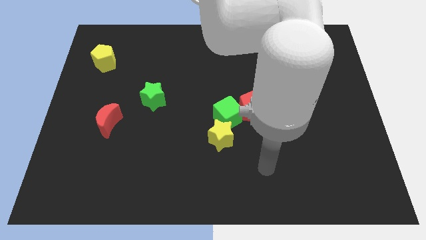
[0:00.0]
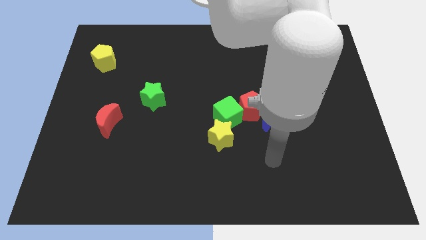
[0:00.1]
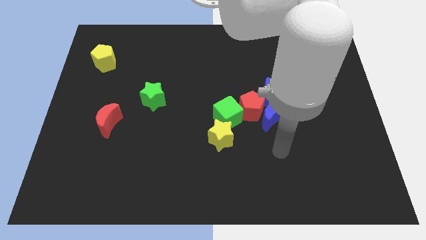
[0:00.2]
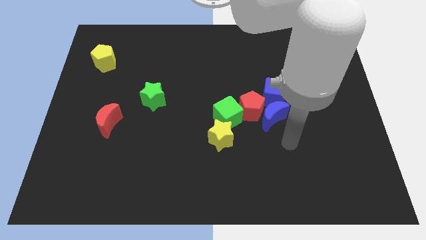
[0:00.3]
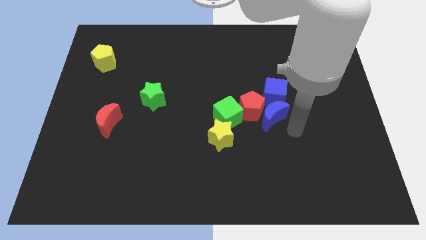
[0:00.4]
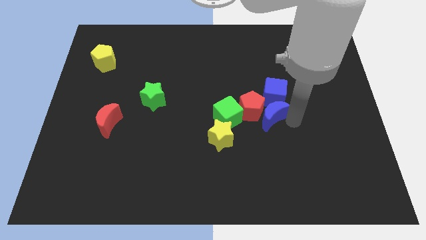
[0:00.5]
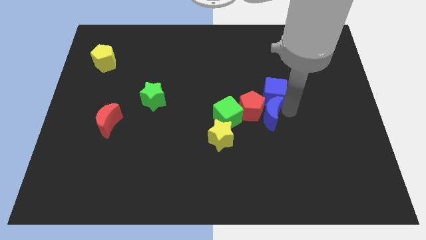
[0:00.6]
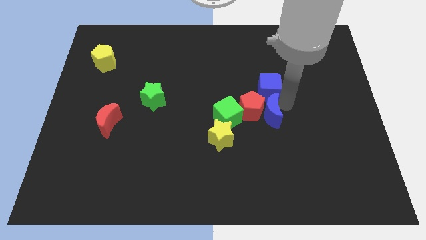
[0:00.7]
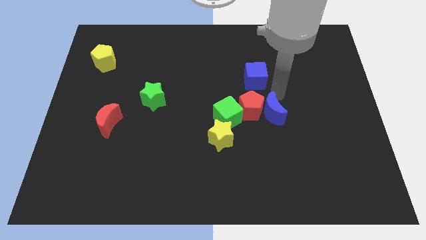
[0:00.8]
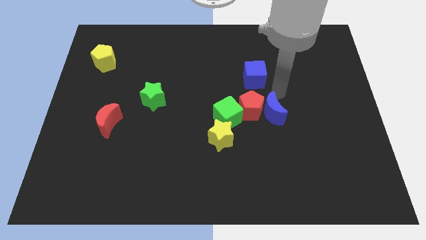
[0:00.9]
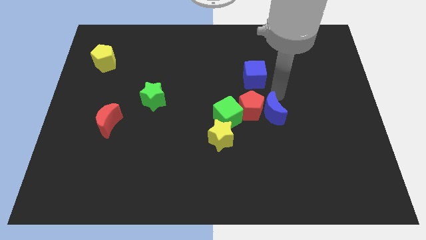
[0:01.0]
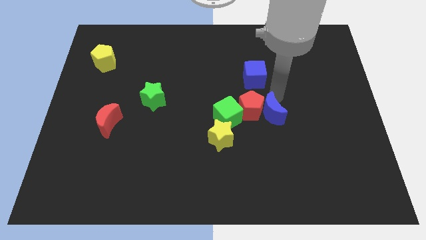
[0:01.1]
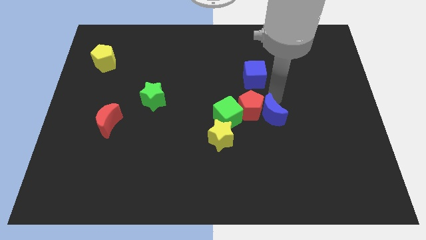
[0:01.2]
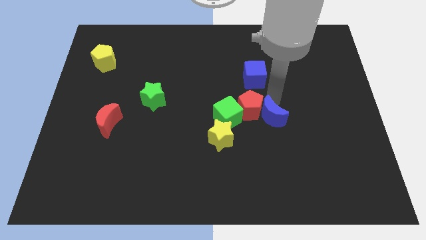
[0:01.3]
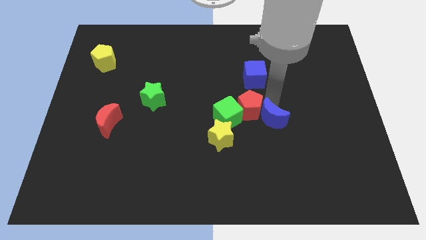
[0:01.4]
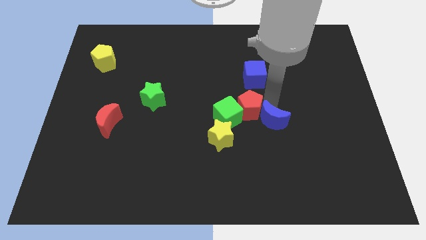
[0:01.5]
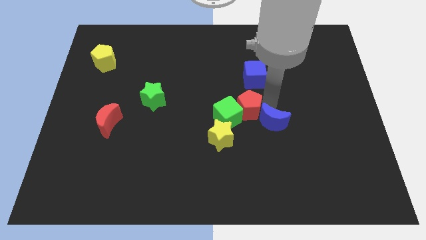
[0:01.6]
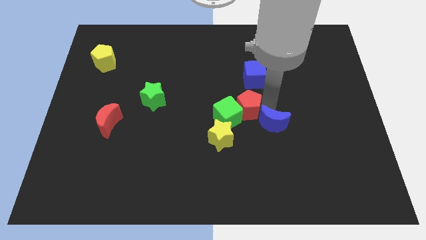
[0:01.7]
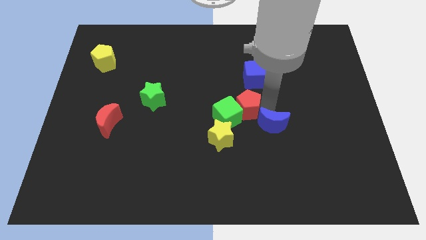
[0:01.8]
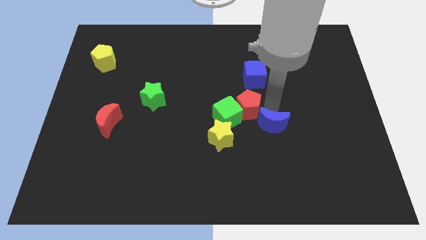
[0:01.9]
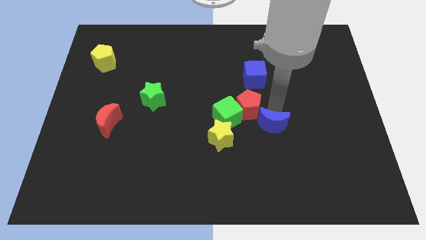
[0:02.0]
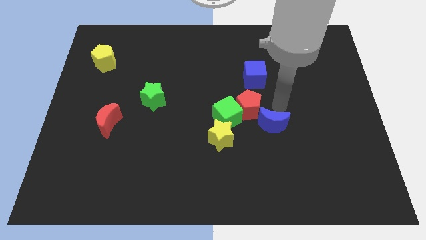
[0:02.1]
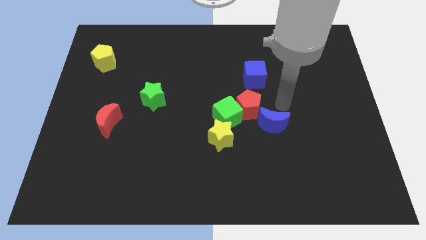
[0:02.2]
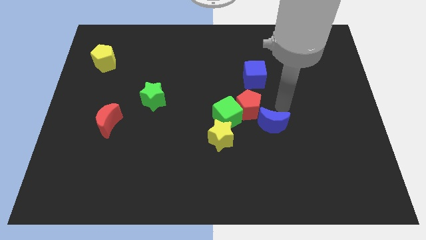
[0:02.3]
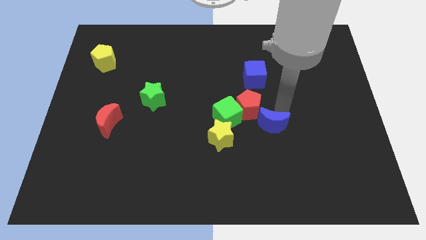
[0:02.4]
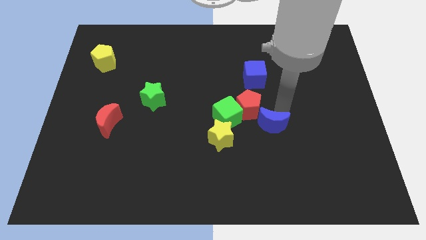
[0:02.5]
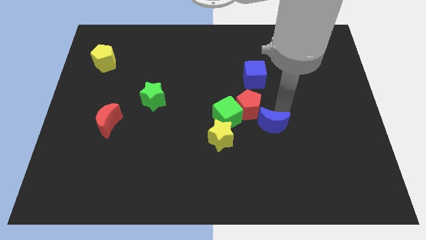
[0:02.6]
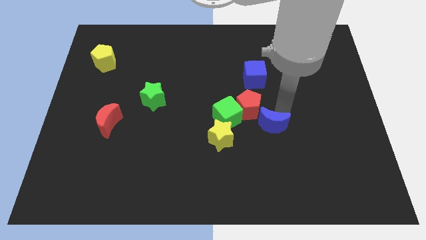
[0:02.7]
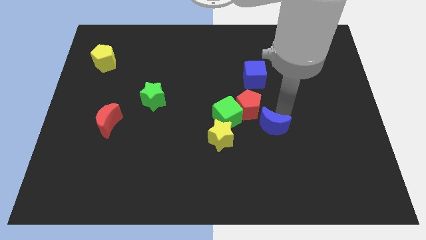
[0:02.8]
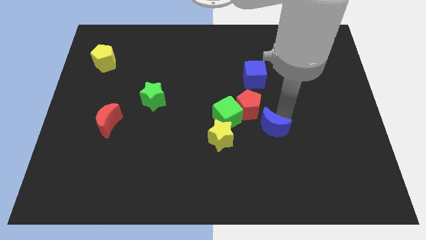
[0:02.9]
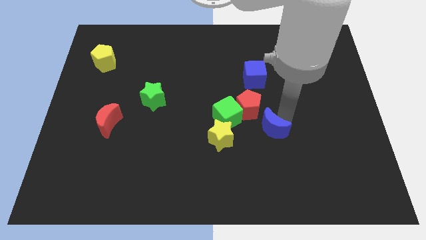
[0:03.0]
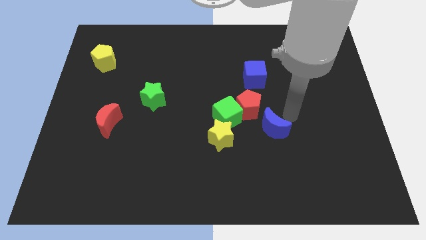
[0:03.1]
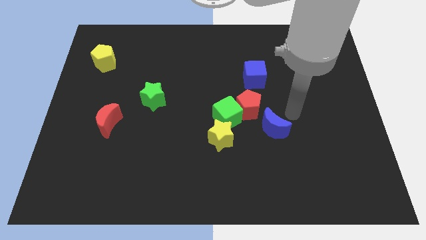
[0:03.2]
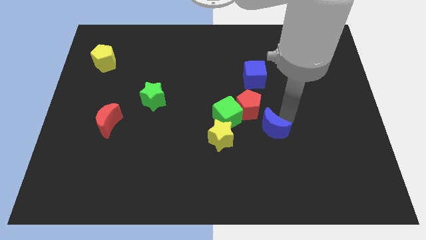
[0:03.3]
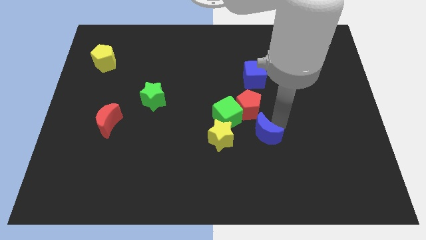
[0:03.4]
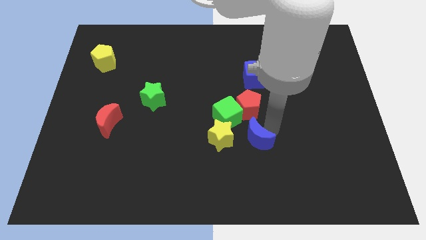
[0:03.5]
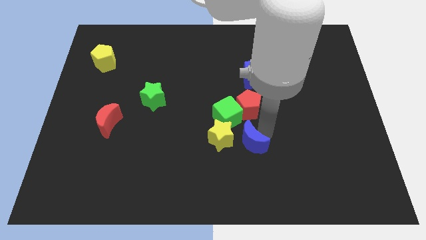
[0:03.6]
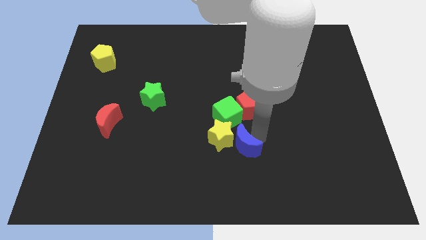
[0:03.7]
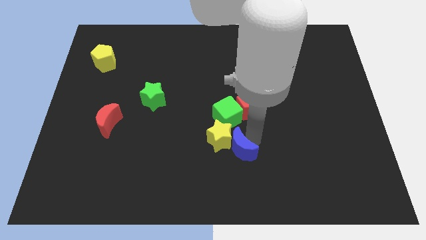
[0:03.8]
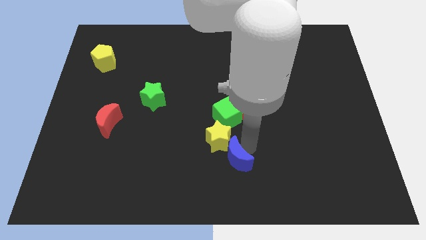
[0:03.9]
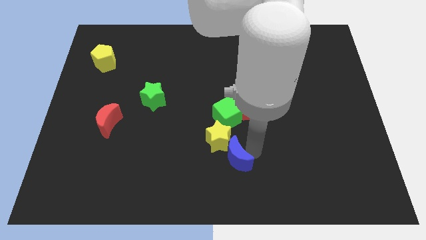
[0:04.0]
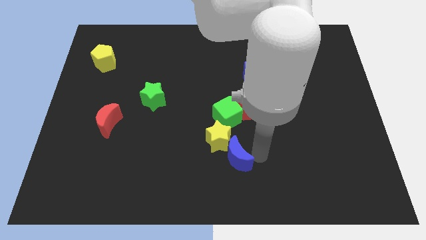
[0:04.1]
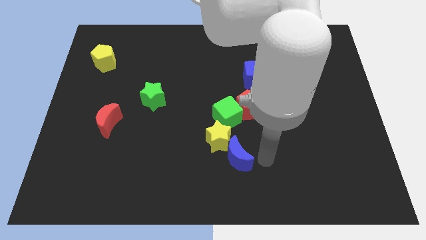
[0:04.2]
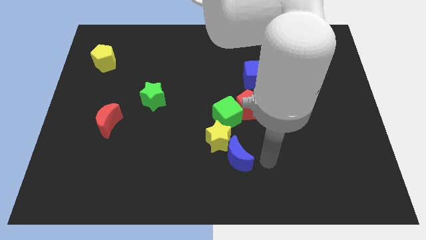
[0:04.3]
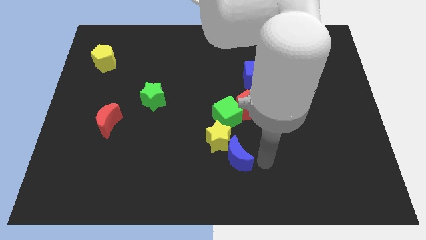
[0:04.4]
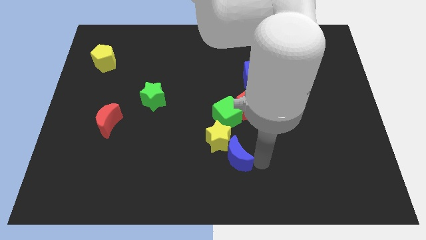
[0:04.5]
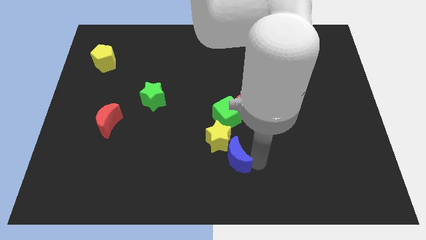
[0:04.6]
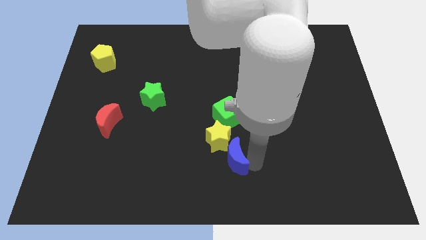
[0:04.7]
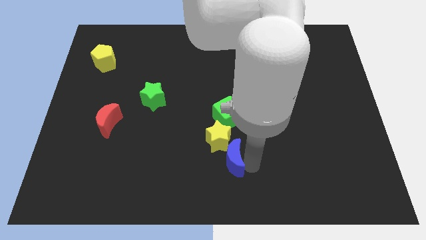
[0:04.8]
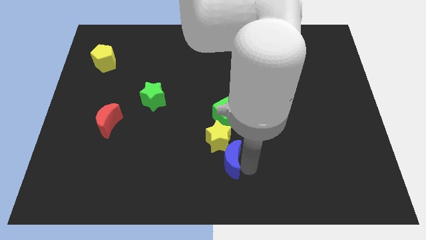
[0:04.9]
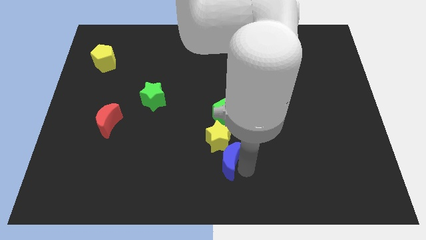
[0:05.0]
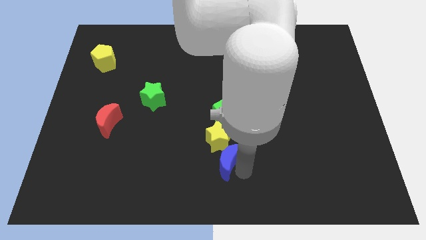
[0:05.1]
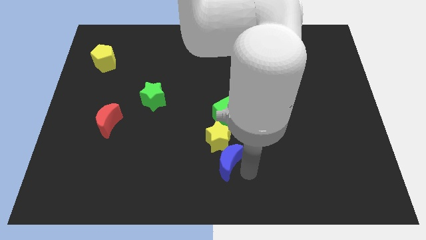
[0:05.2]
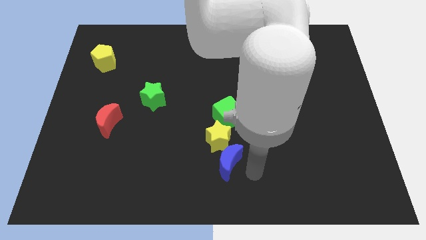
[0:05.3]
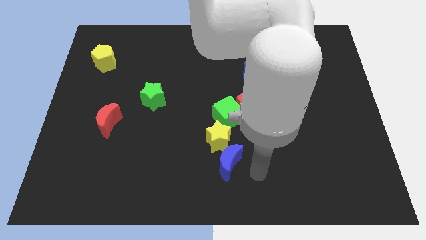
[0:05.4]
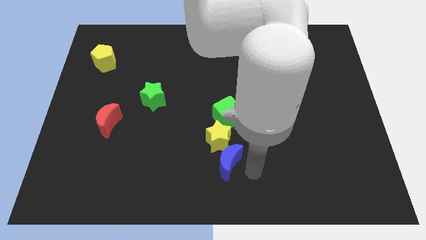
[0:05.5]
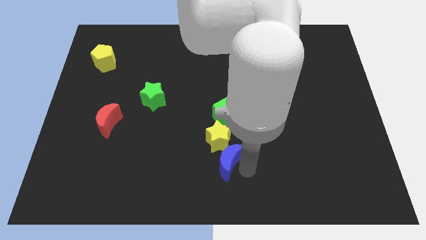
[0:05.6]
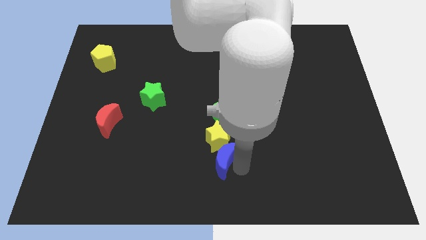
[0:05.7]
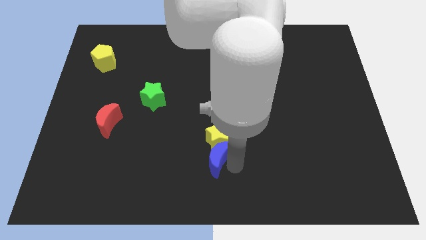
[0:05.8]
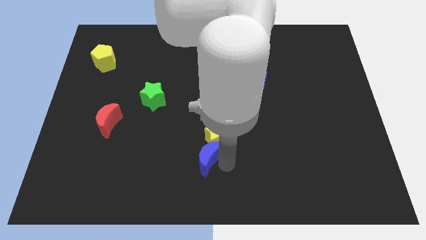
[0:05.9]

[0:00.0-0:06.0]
slide the blue moon somewhat left

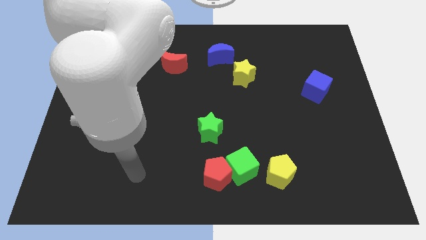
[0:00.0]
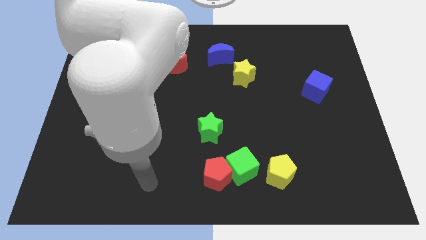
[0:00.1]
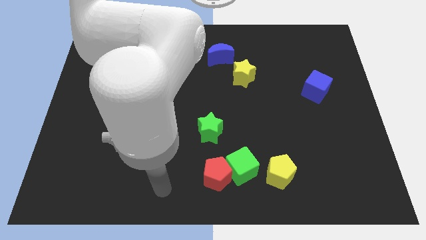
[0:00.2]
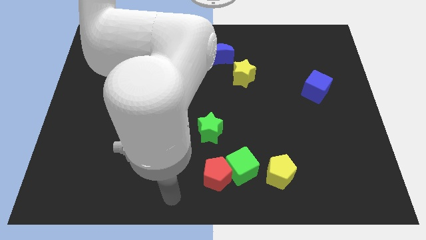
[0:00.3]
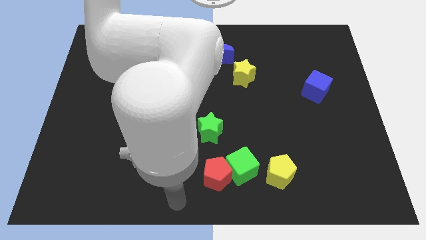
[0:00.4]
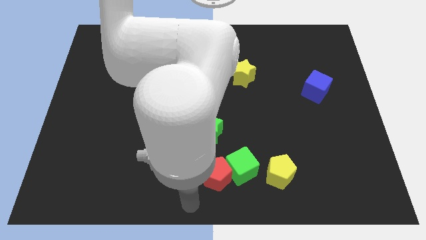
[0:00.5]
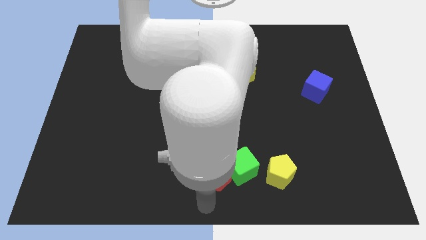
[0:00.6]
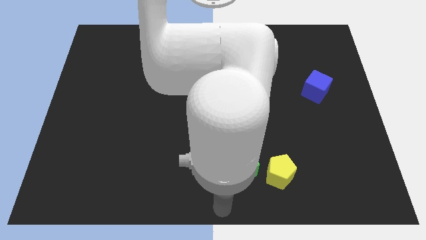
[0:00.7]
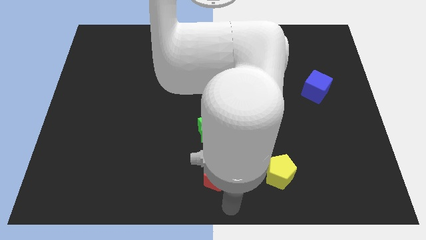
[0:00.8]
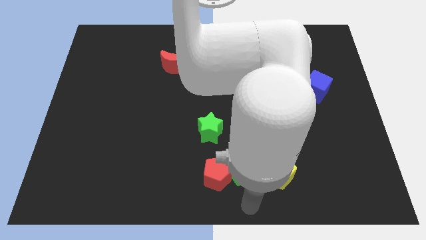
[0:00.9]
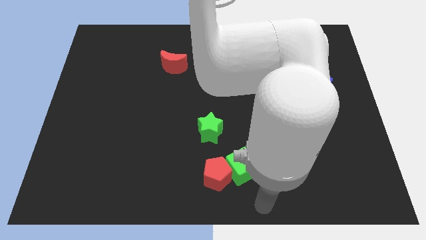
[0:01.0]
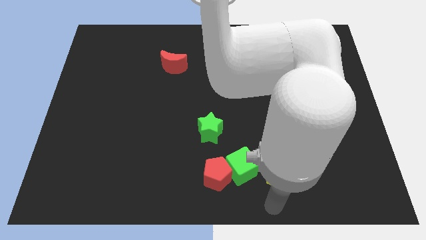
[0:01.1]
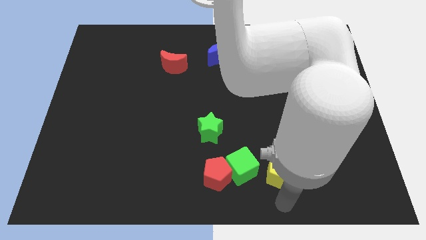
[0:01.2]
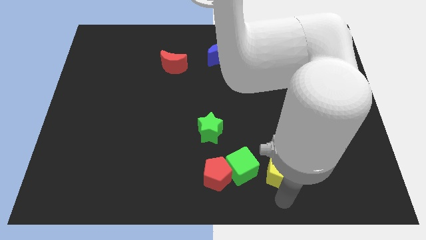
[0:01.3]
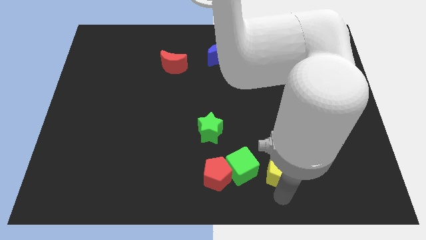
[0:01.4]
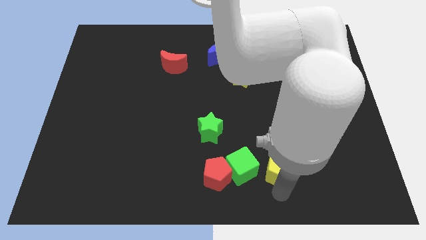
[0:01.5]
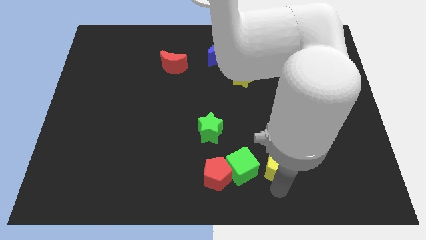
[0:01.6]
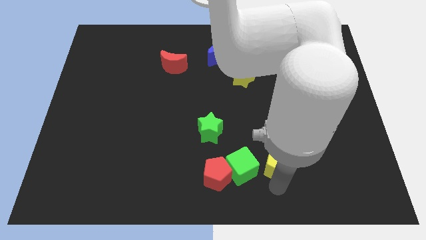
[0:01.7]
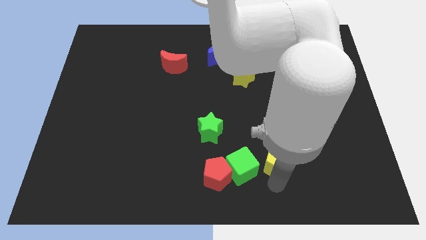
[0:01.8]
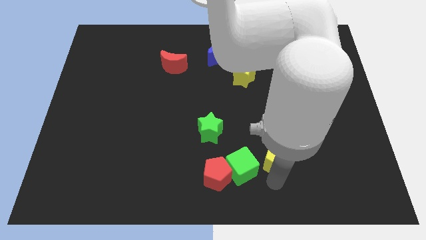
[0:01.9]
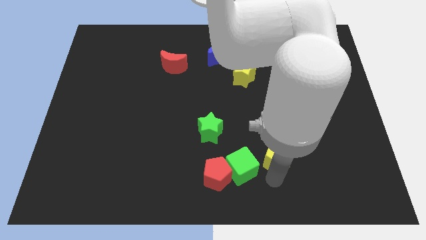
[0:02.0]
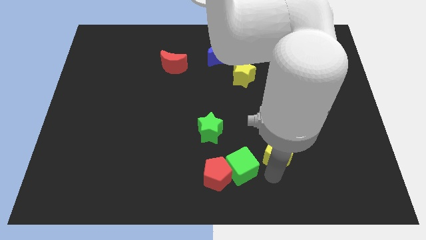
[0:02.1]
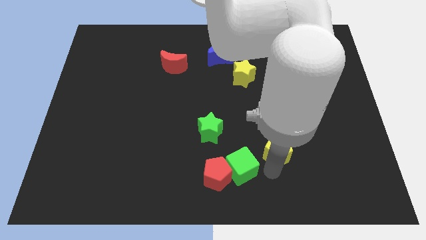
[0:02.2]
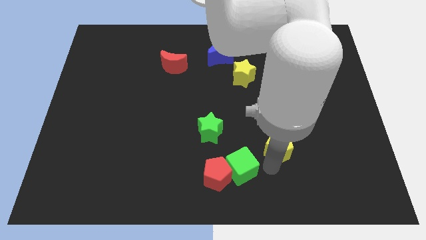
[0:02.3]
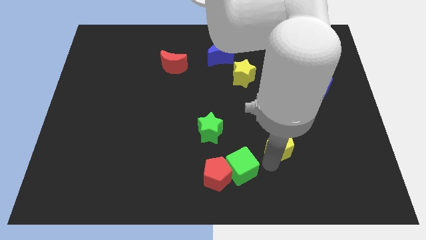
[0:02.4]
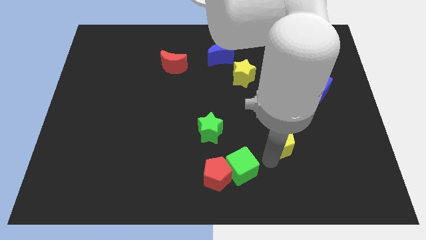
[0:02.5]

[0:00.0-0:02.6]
move the yellow pentagon a little bit up
